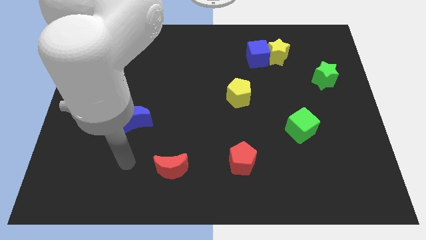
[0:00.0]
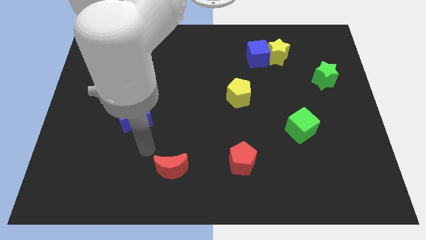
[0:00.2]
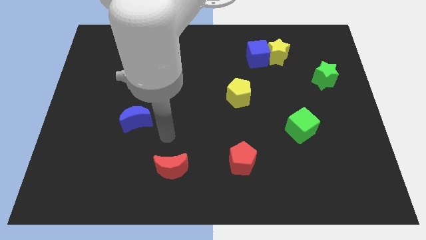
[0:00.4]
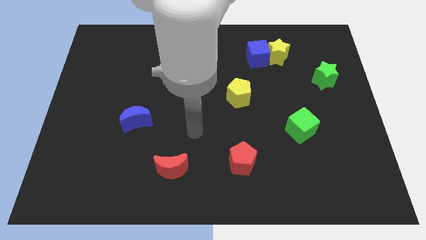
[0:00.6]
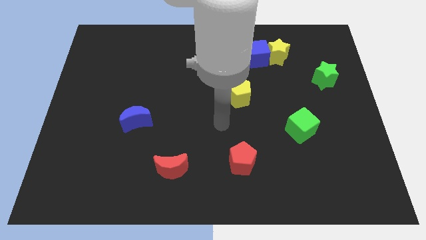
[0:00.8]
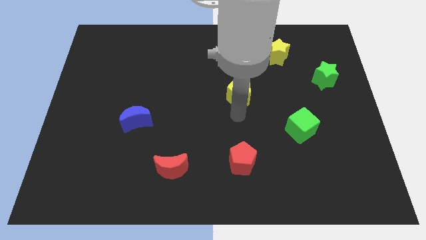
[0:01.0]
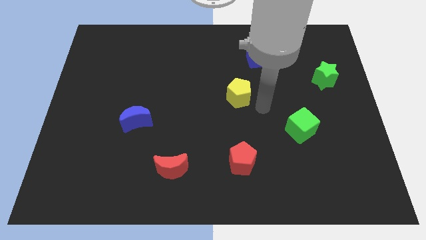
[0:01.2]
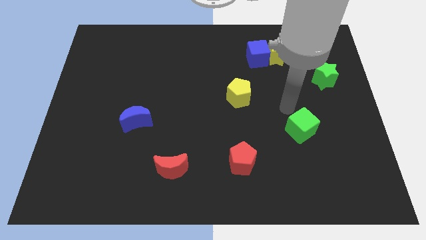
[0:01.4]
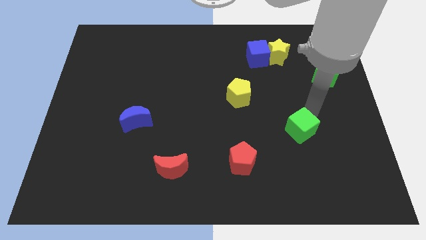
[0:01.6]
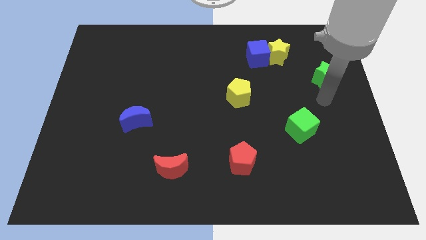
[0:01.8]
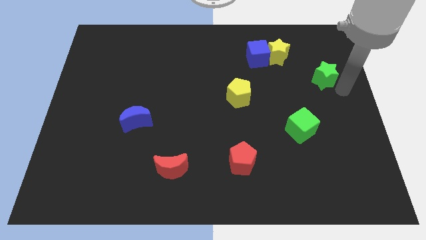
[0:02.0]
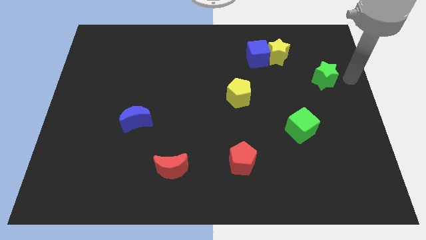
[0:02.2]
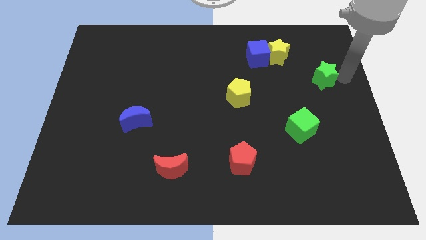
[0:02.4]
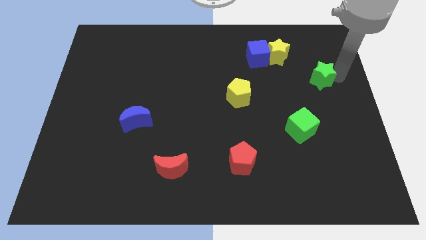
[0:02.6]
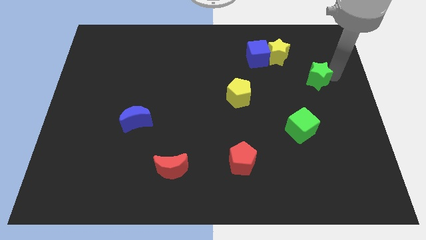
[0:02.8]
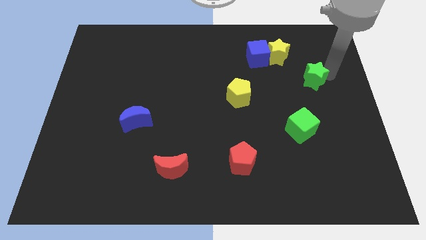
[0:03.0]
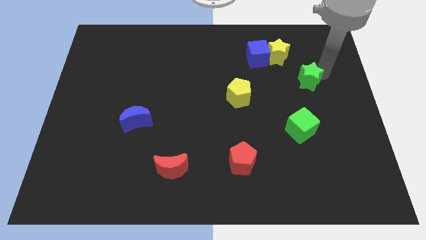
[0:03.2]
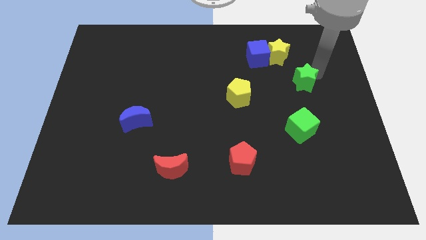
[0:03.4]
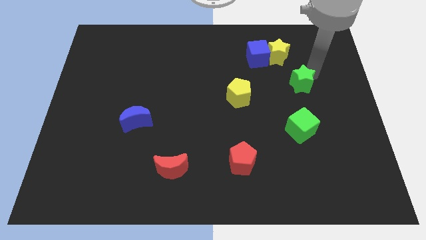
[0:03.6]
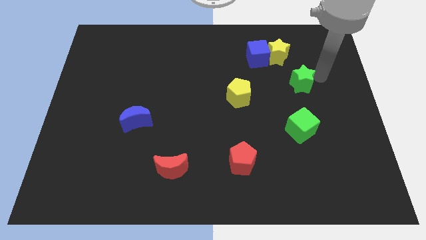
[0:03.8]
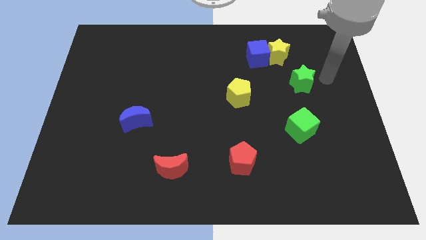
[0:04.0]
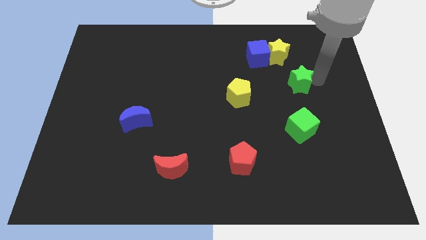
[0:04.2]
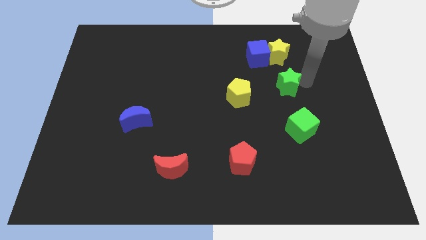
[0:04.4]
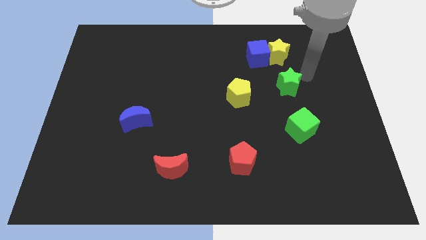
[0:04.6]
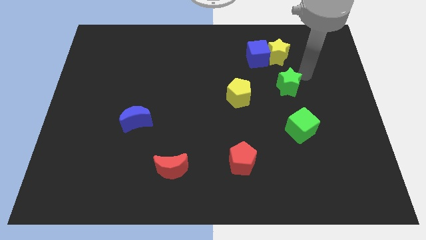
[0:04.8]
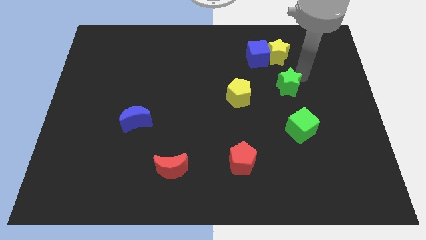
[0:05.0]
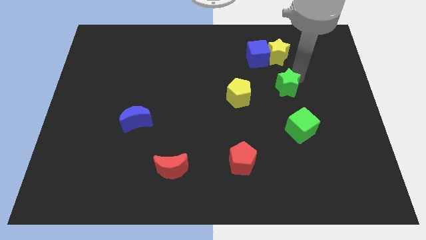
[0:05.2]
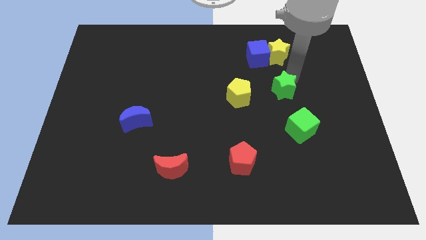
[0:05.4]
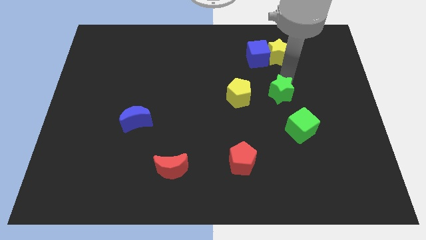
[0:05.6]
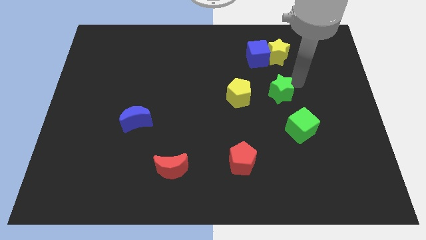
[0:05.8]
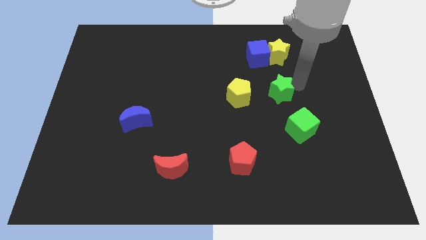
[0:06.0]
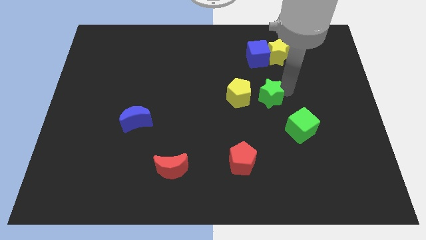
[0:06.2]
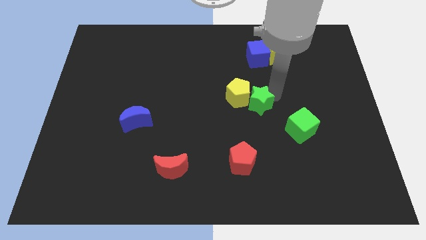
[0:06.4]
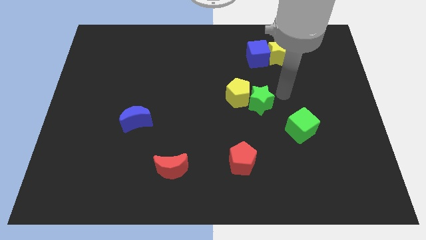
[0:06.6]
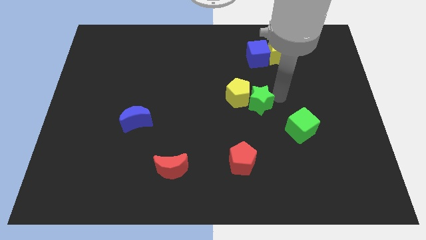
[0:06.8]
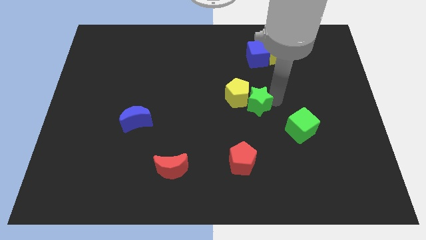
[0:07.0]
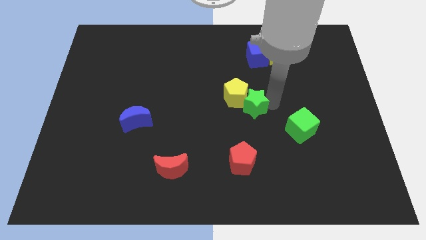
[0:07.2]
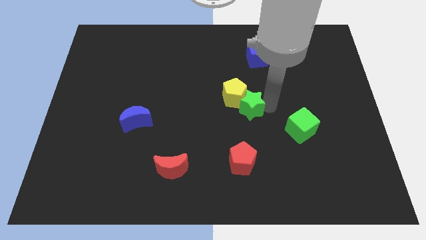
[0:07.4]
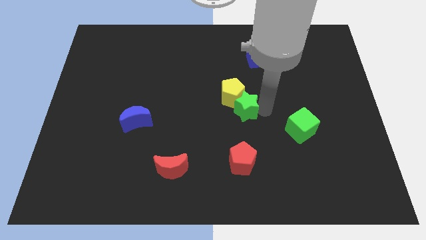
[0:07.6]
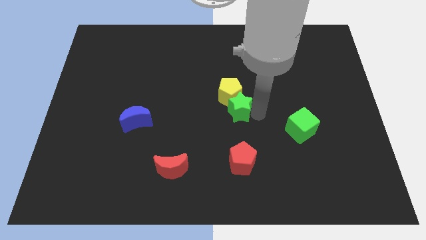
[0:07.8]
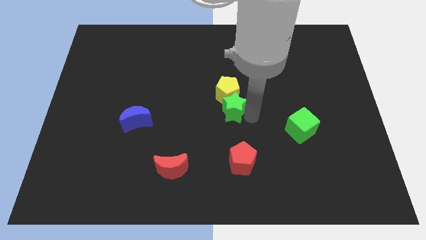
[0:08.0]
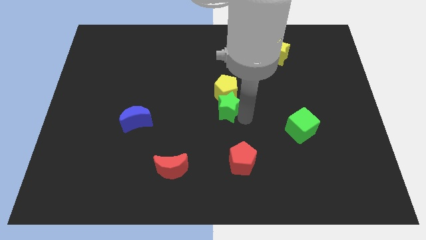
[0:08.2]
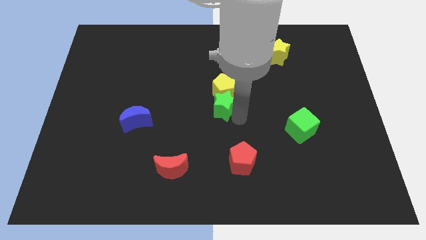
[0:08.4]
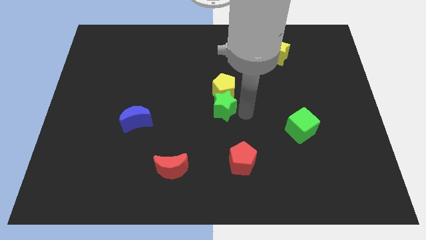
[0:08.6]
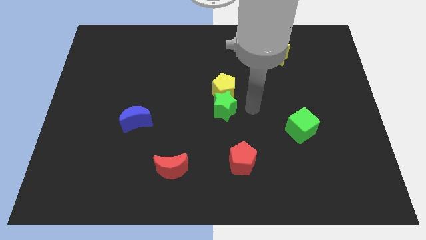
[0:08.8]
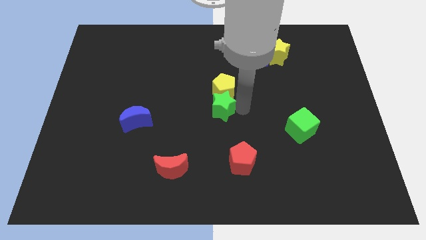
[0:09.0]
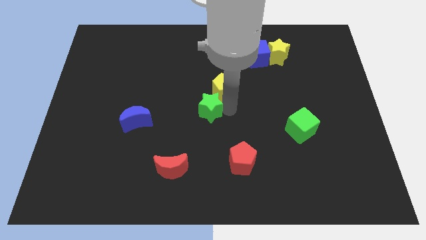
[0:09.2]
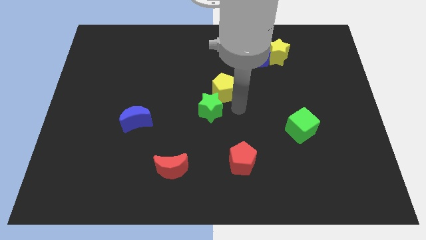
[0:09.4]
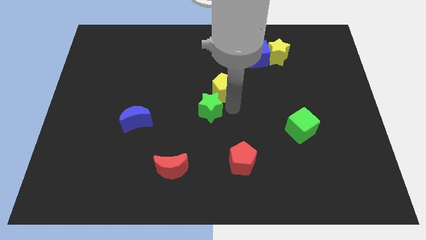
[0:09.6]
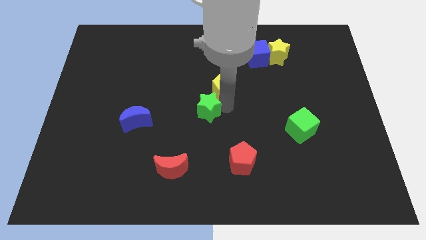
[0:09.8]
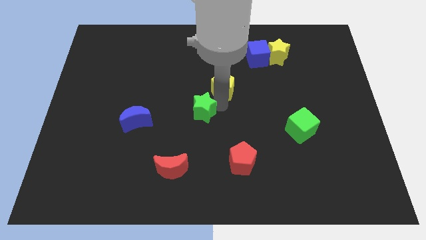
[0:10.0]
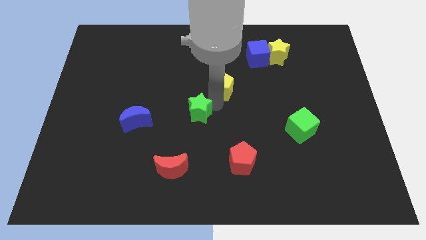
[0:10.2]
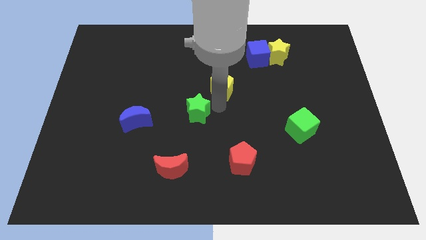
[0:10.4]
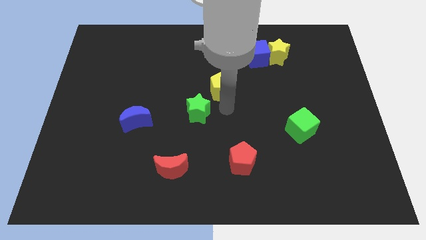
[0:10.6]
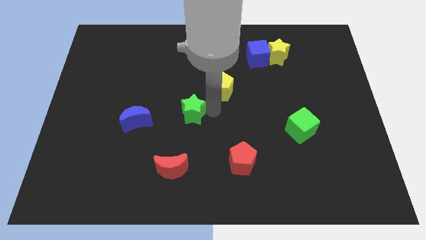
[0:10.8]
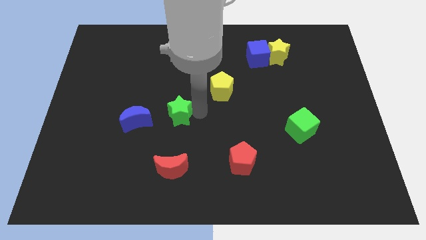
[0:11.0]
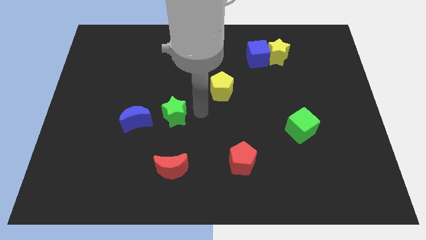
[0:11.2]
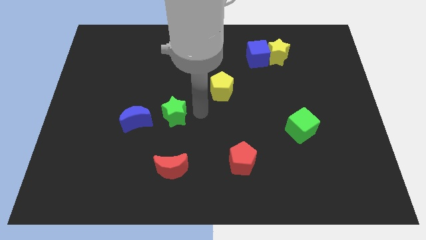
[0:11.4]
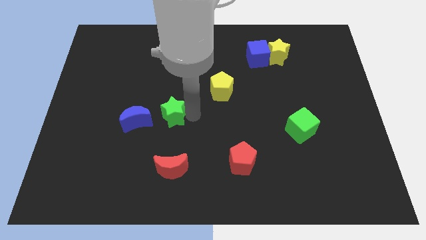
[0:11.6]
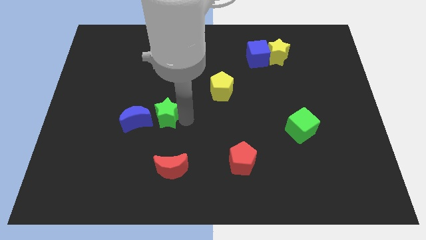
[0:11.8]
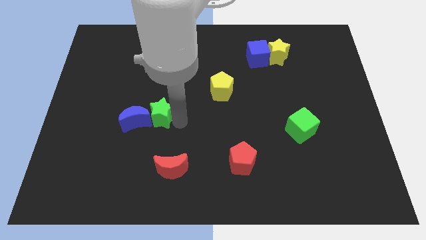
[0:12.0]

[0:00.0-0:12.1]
slide the green star next to the blue moon

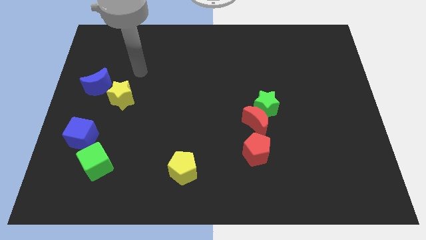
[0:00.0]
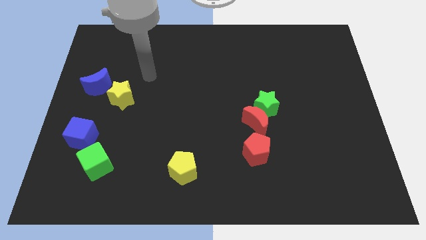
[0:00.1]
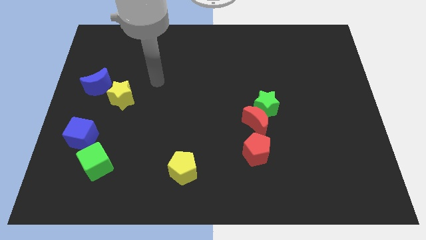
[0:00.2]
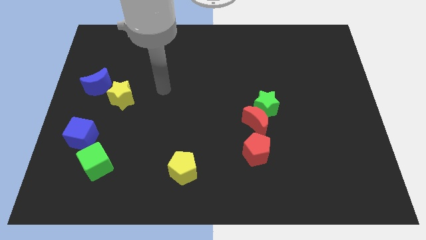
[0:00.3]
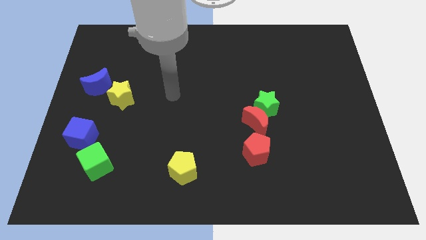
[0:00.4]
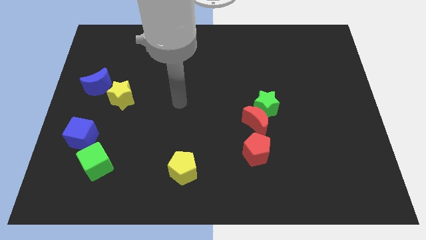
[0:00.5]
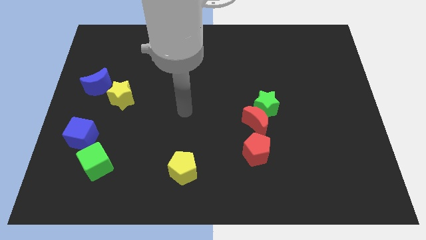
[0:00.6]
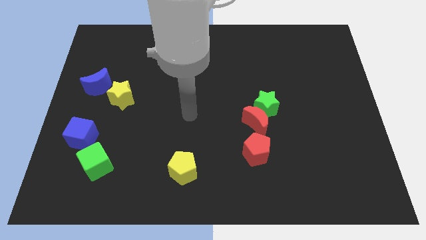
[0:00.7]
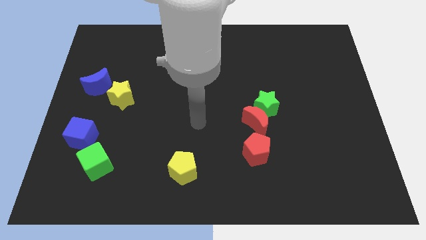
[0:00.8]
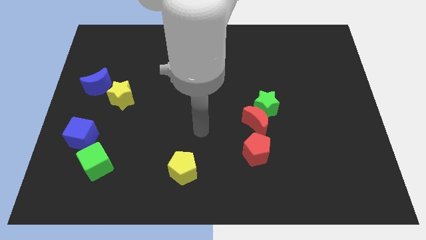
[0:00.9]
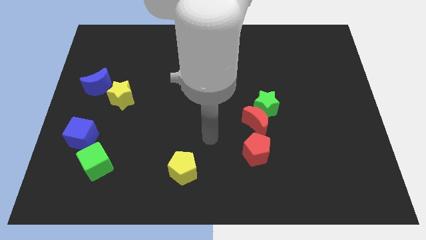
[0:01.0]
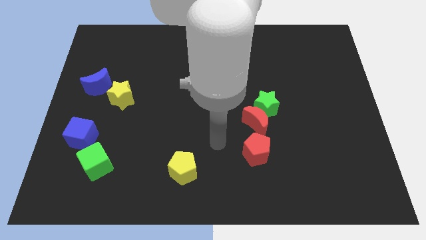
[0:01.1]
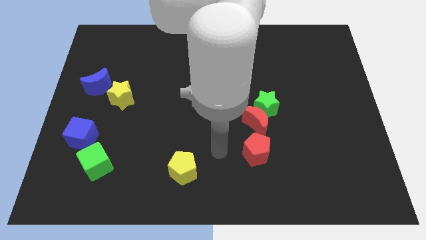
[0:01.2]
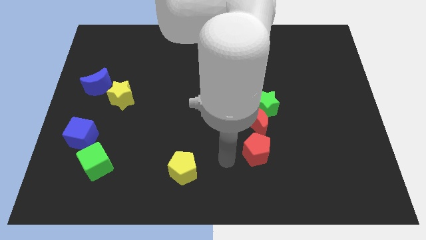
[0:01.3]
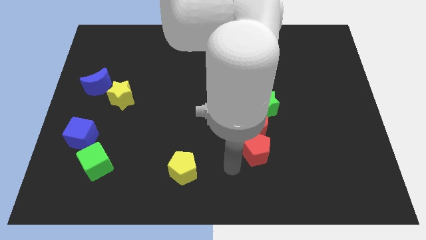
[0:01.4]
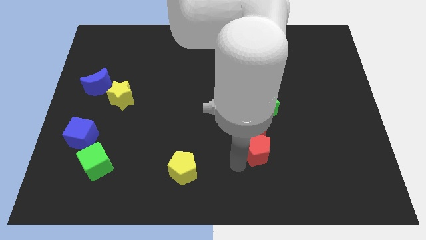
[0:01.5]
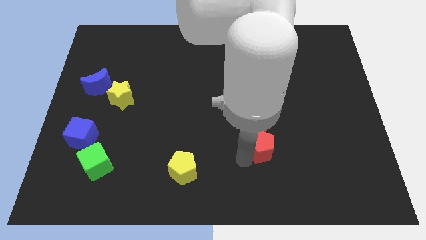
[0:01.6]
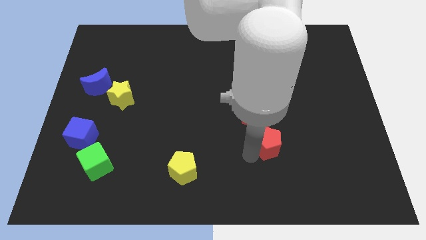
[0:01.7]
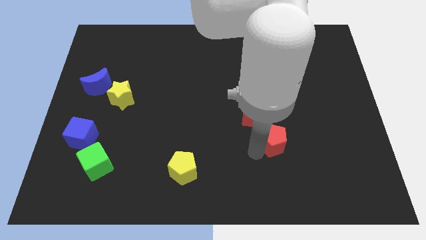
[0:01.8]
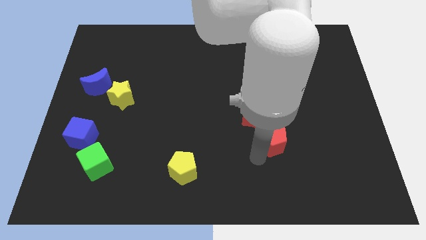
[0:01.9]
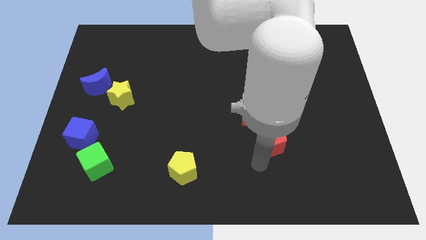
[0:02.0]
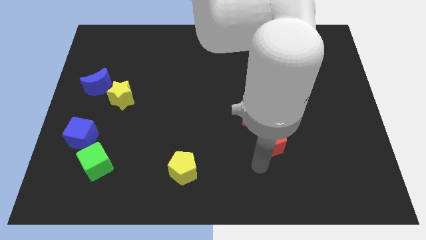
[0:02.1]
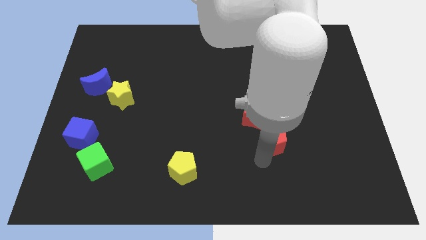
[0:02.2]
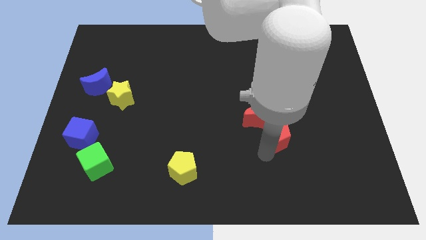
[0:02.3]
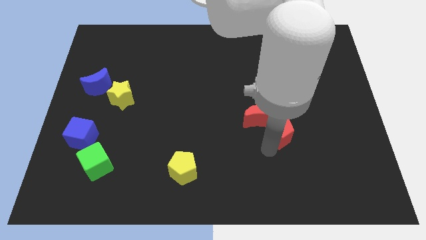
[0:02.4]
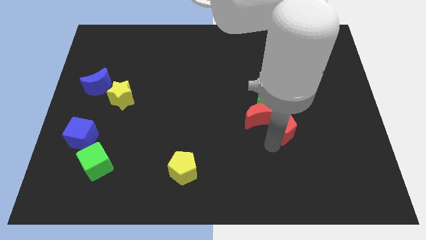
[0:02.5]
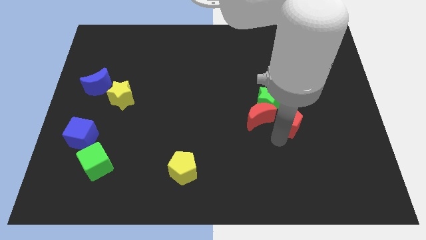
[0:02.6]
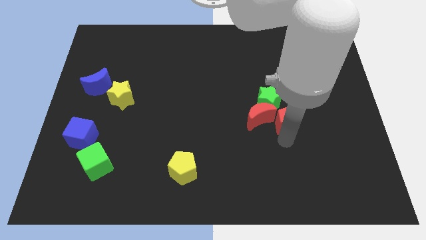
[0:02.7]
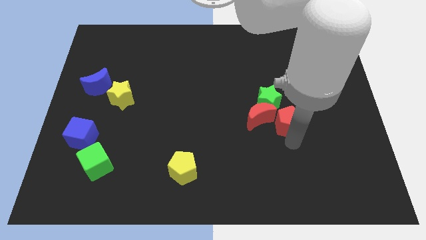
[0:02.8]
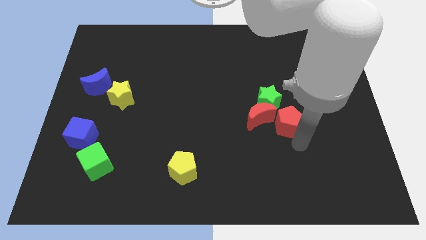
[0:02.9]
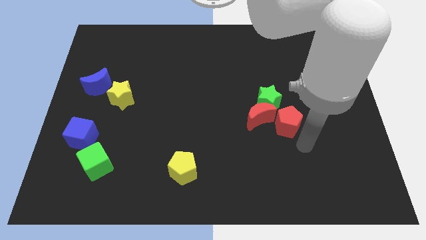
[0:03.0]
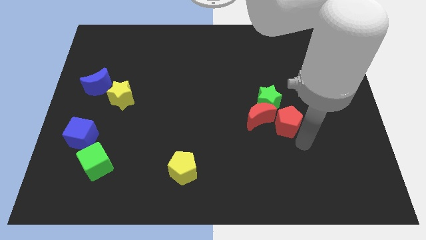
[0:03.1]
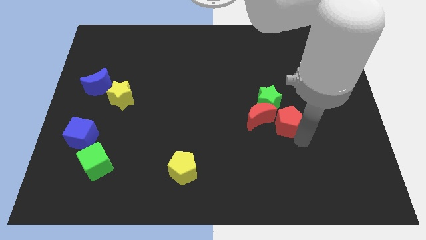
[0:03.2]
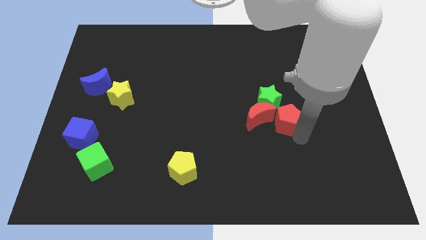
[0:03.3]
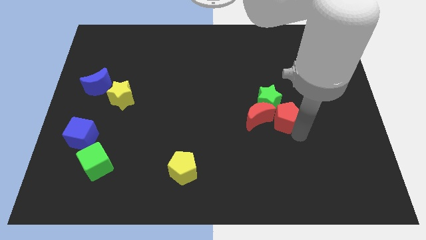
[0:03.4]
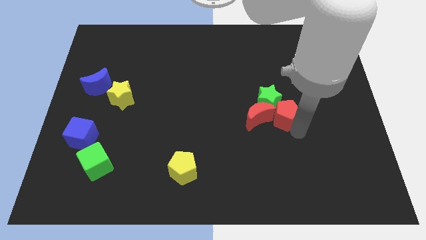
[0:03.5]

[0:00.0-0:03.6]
put the red pentagon next to the green star
